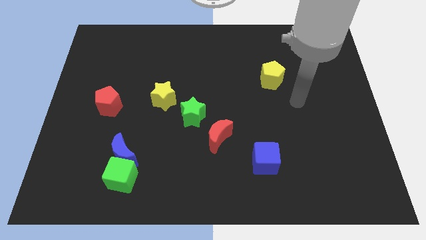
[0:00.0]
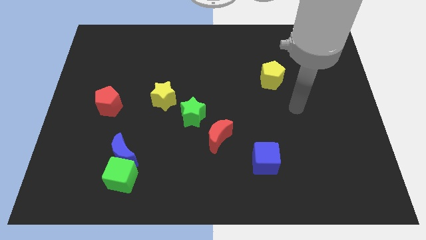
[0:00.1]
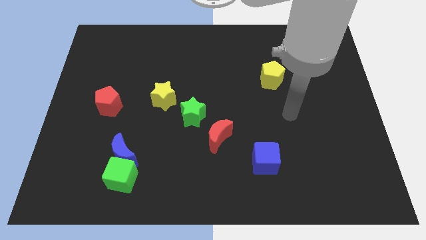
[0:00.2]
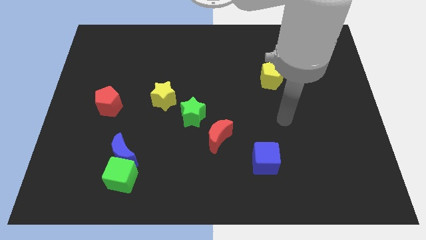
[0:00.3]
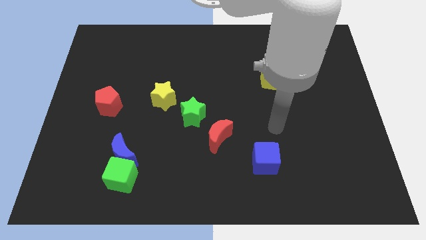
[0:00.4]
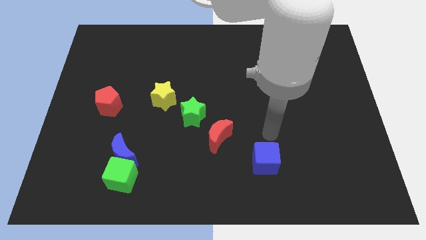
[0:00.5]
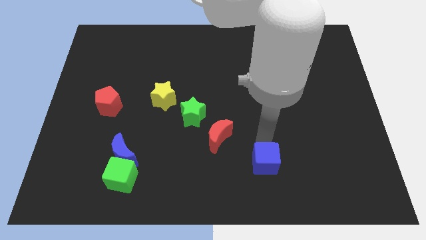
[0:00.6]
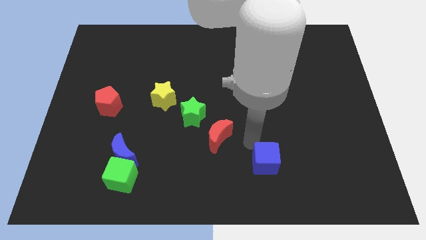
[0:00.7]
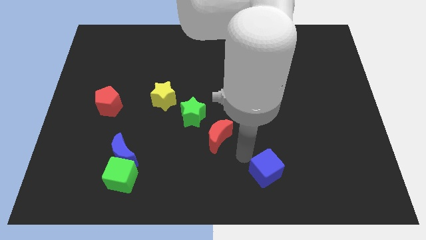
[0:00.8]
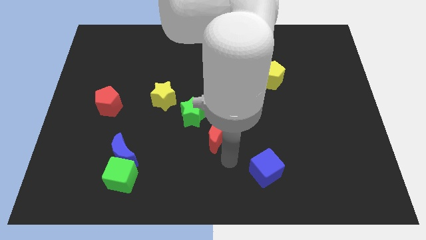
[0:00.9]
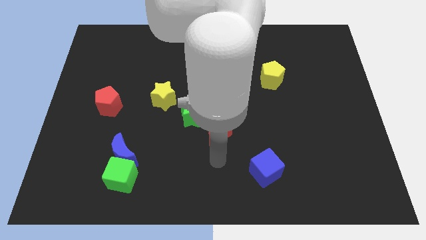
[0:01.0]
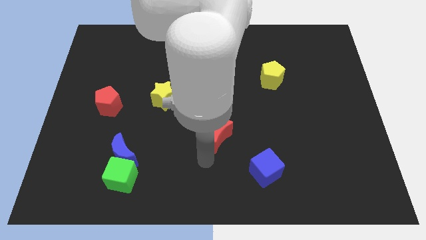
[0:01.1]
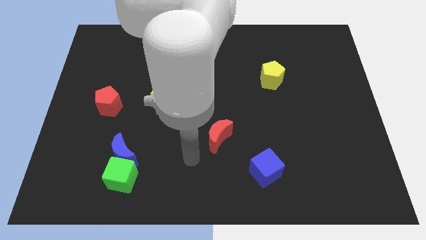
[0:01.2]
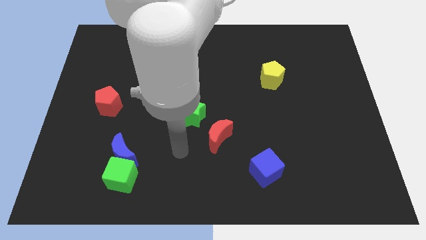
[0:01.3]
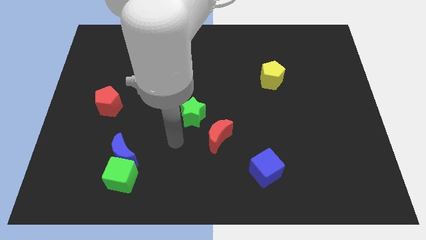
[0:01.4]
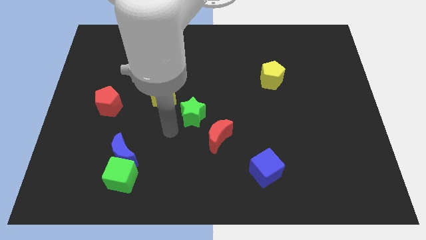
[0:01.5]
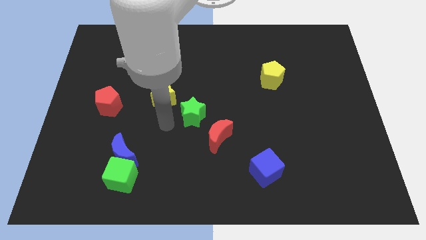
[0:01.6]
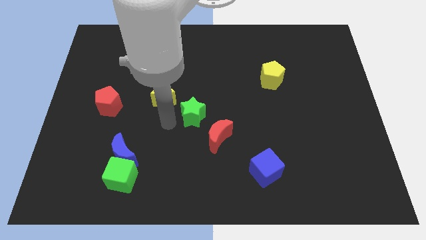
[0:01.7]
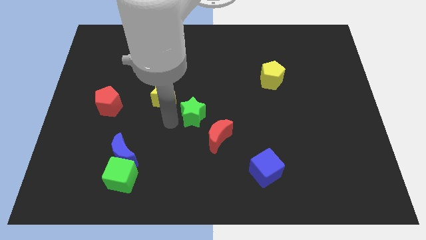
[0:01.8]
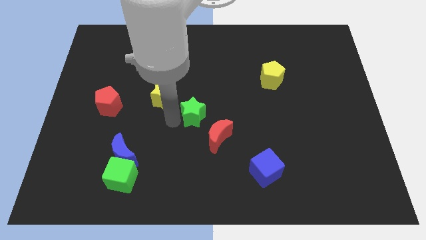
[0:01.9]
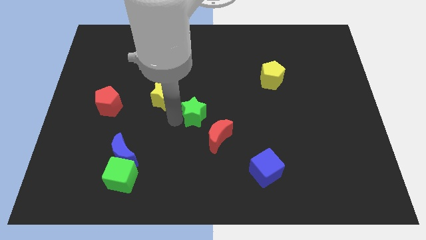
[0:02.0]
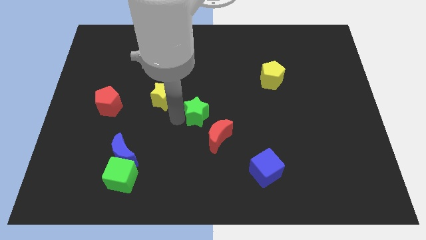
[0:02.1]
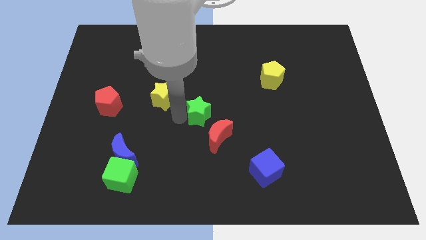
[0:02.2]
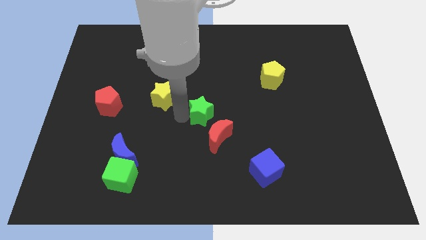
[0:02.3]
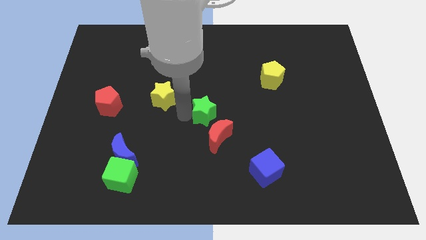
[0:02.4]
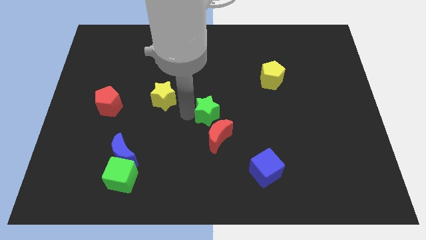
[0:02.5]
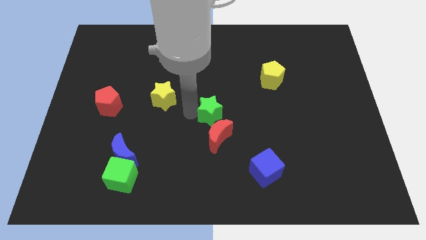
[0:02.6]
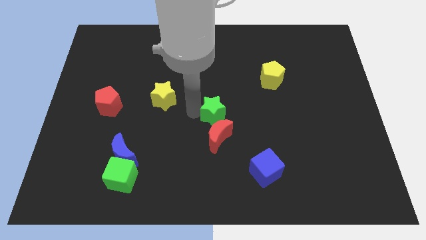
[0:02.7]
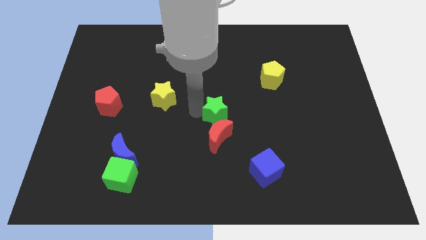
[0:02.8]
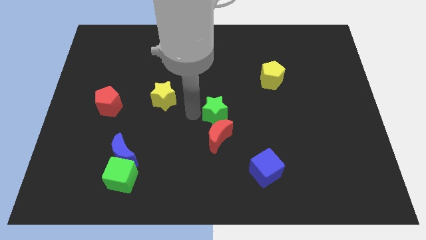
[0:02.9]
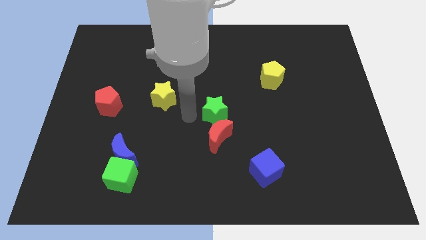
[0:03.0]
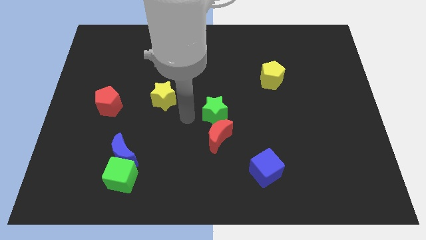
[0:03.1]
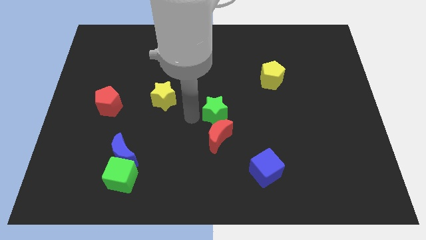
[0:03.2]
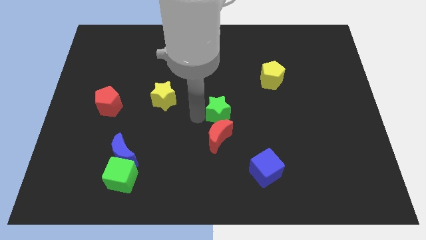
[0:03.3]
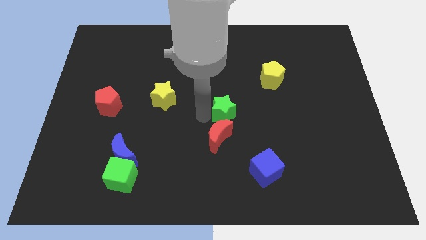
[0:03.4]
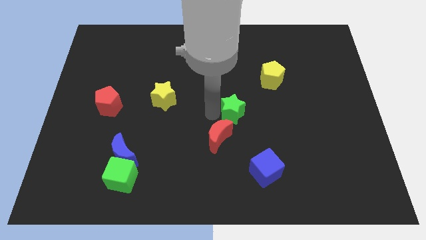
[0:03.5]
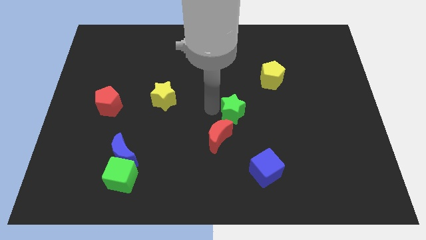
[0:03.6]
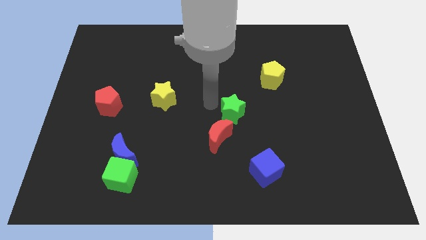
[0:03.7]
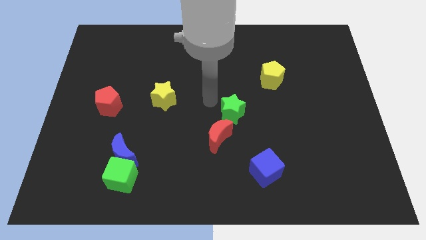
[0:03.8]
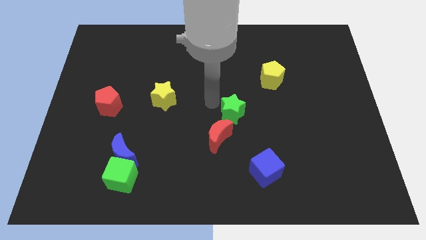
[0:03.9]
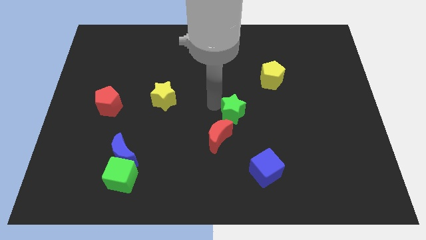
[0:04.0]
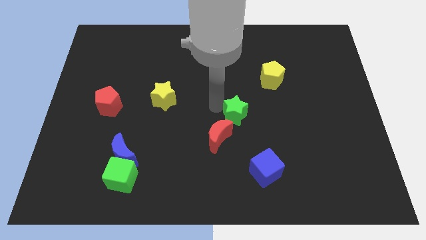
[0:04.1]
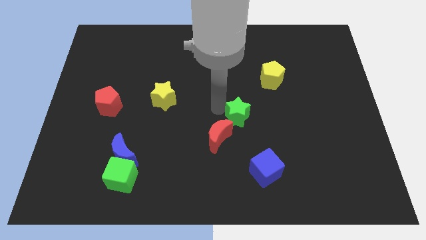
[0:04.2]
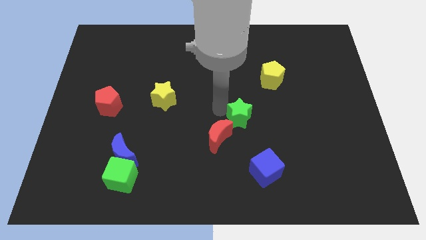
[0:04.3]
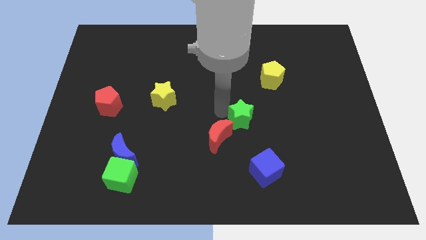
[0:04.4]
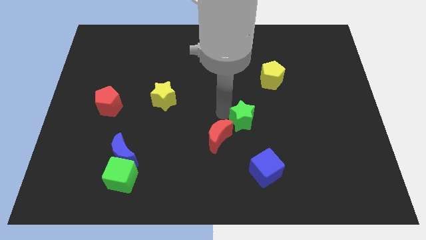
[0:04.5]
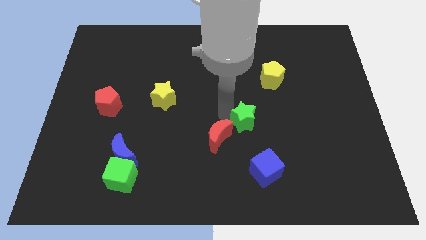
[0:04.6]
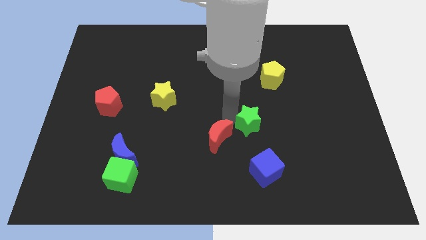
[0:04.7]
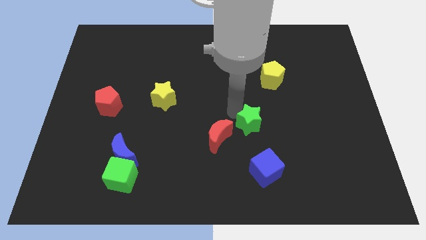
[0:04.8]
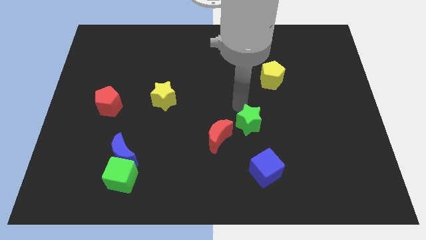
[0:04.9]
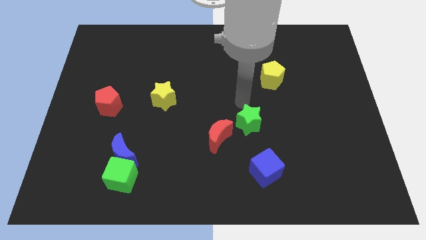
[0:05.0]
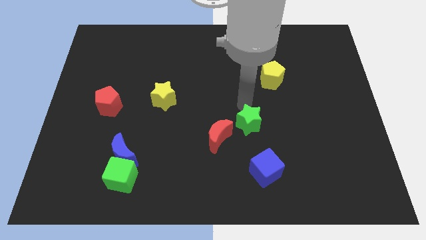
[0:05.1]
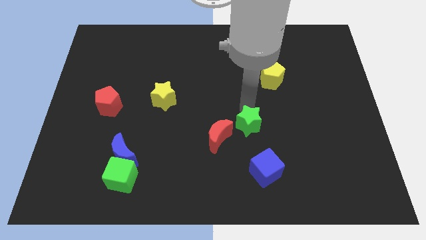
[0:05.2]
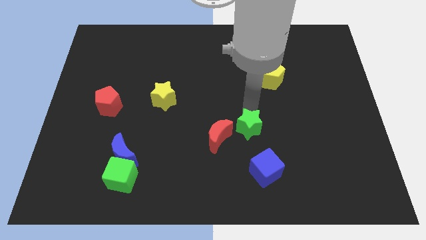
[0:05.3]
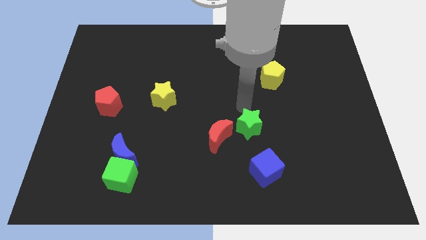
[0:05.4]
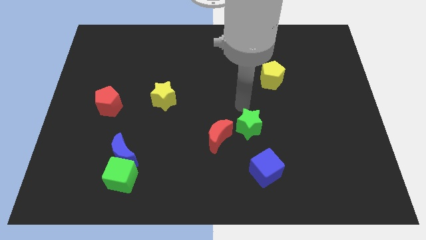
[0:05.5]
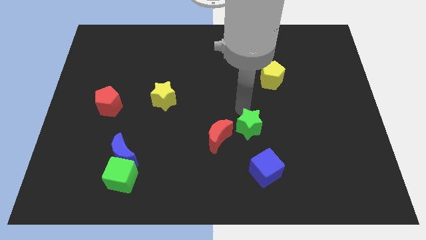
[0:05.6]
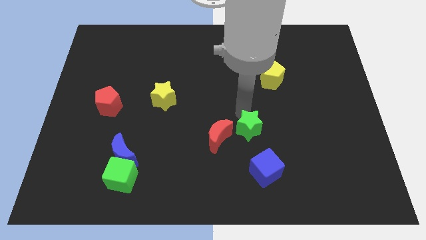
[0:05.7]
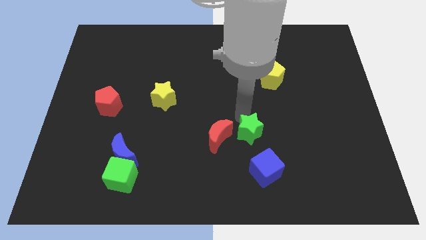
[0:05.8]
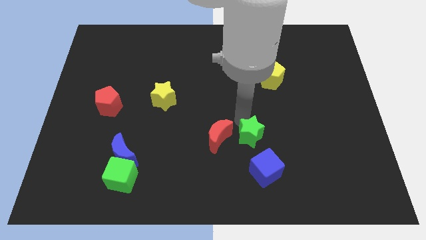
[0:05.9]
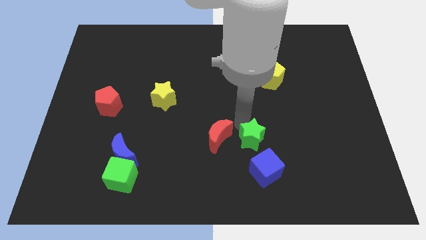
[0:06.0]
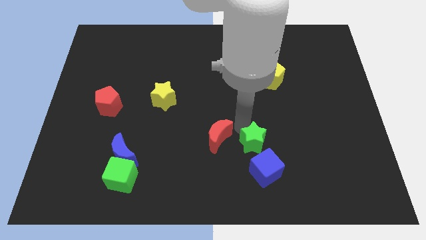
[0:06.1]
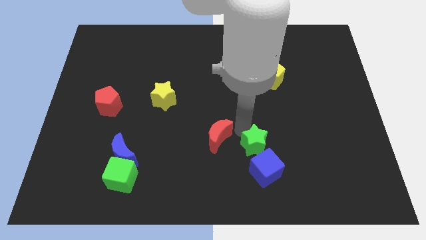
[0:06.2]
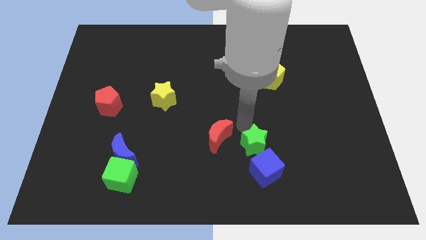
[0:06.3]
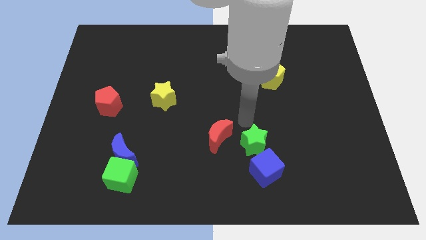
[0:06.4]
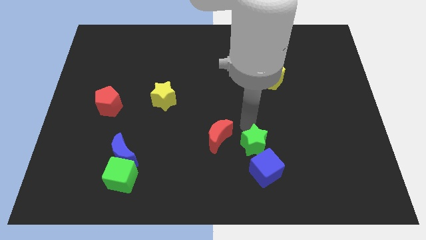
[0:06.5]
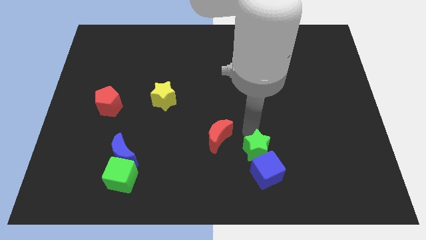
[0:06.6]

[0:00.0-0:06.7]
put the green star close to the blue cube

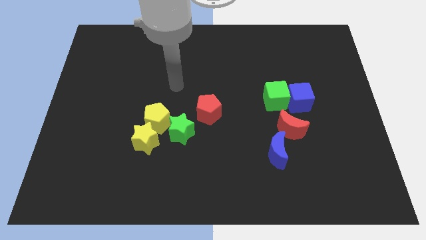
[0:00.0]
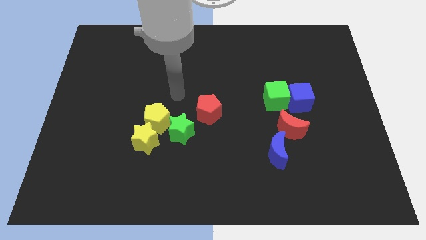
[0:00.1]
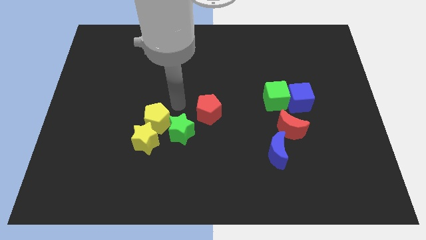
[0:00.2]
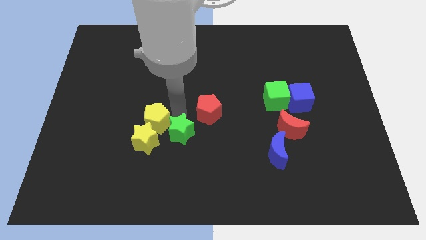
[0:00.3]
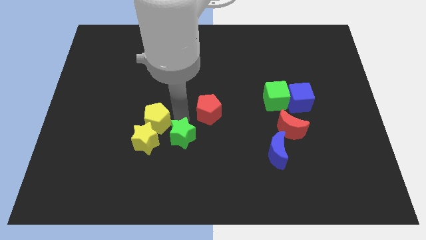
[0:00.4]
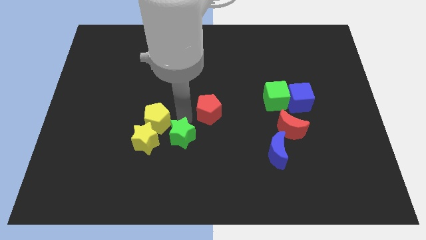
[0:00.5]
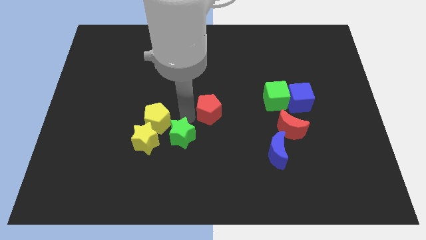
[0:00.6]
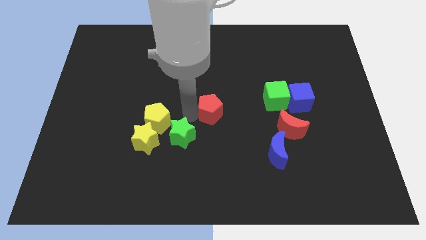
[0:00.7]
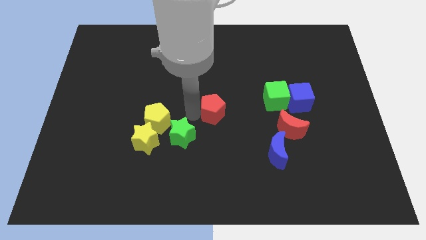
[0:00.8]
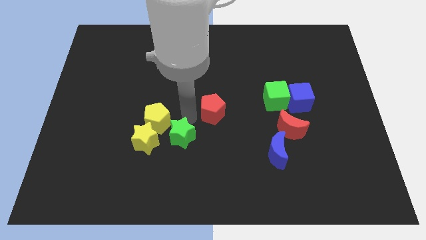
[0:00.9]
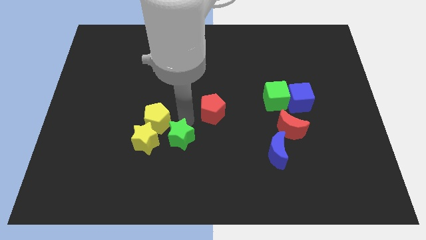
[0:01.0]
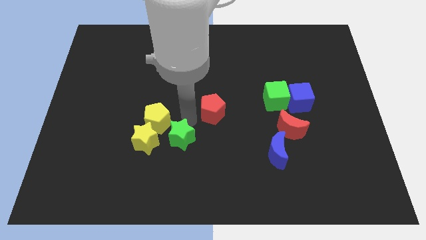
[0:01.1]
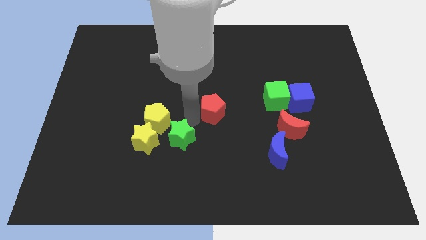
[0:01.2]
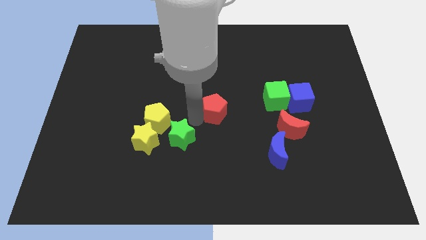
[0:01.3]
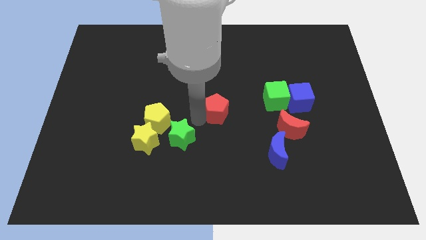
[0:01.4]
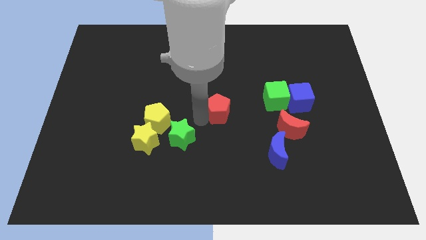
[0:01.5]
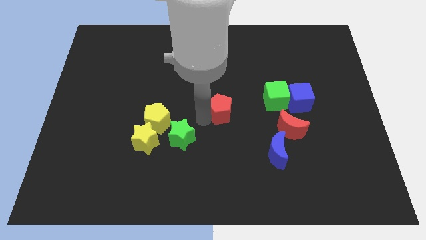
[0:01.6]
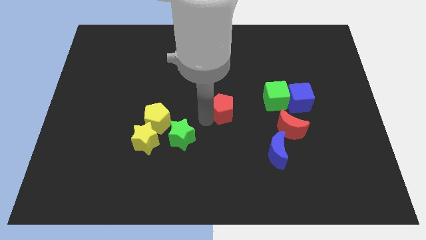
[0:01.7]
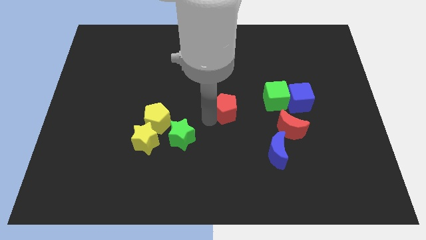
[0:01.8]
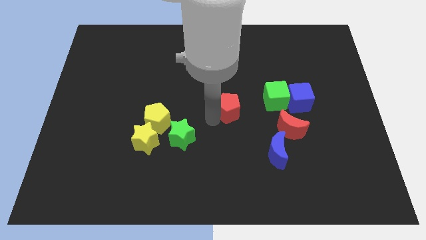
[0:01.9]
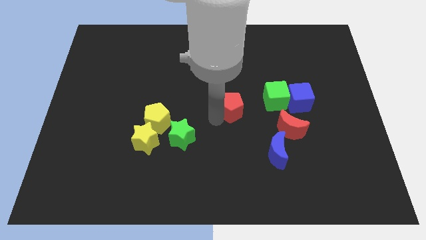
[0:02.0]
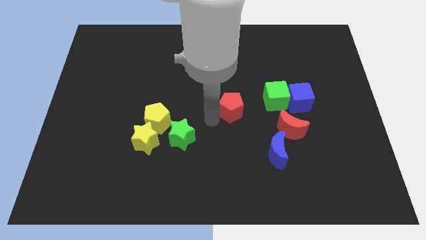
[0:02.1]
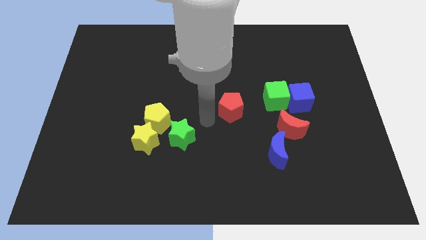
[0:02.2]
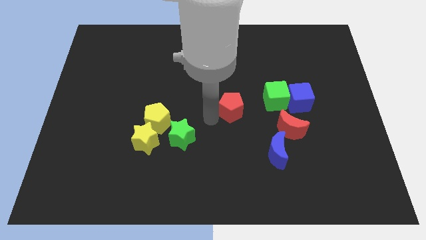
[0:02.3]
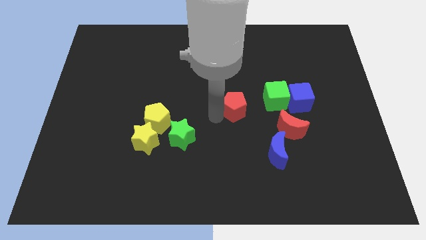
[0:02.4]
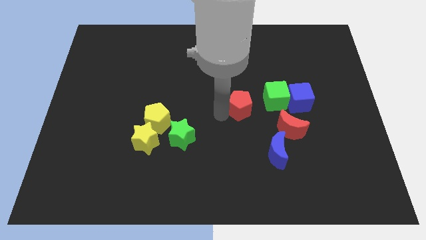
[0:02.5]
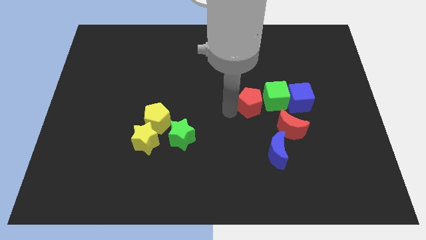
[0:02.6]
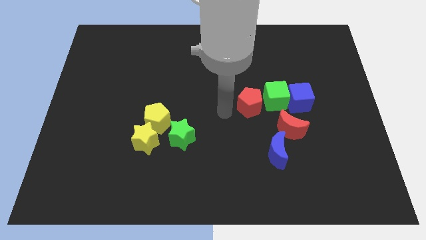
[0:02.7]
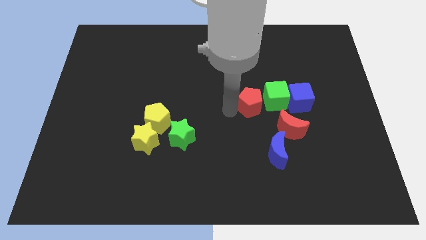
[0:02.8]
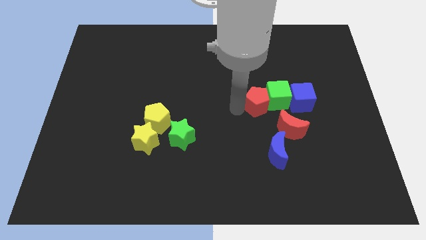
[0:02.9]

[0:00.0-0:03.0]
move the red pentagon next to the green cube
